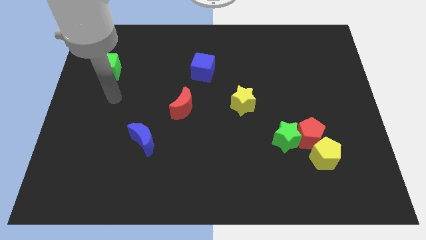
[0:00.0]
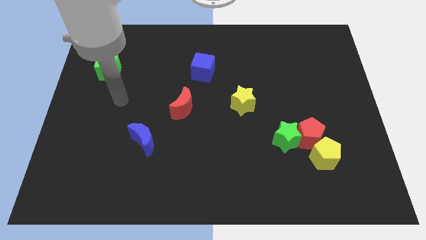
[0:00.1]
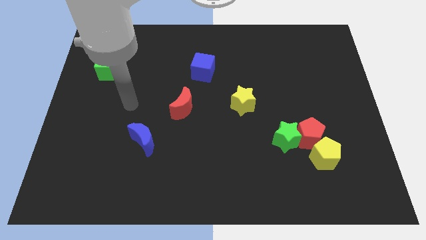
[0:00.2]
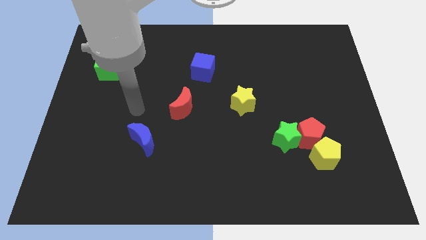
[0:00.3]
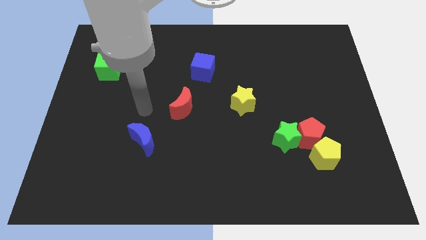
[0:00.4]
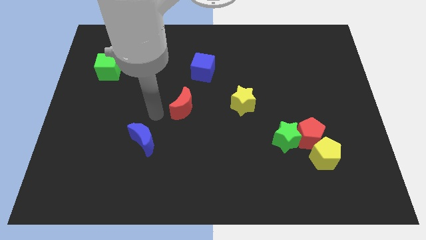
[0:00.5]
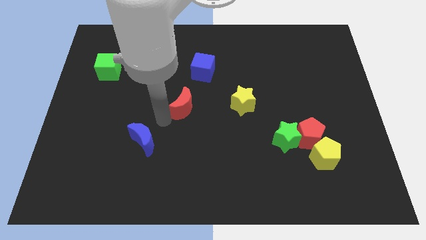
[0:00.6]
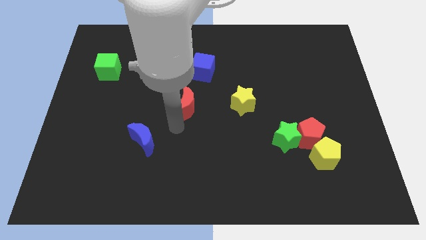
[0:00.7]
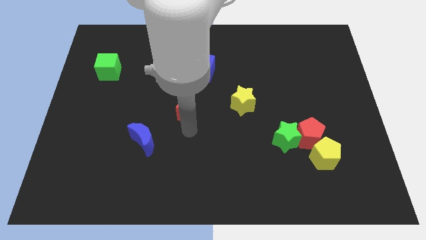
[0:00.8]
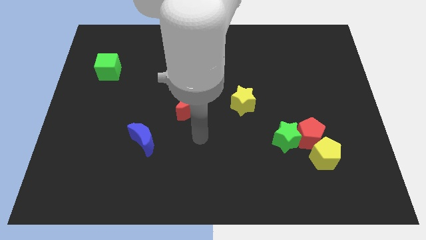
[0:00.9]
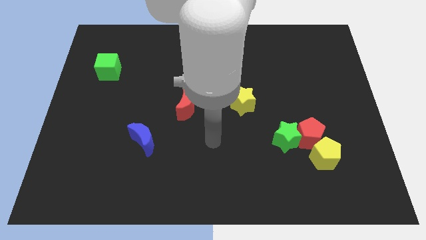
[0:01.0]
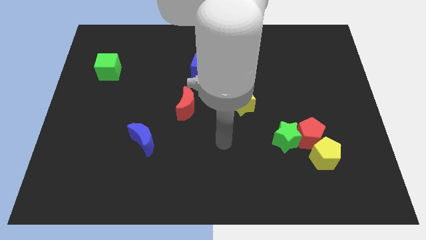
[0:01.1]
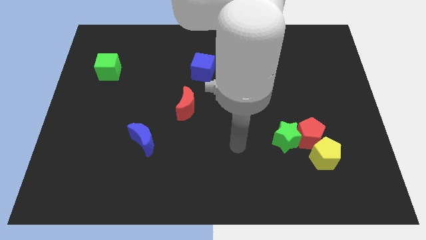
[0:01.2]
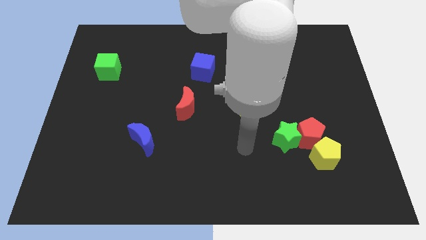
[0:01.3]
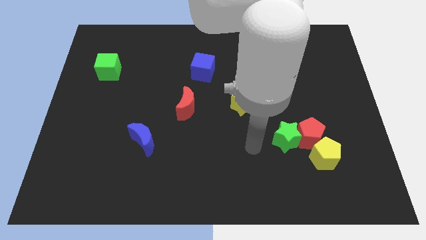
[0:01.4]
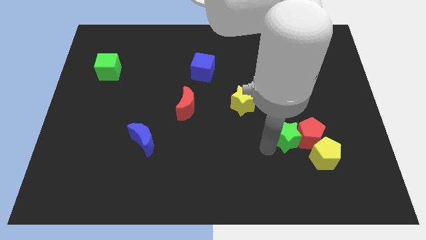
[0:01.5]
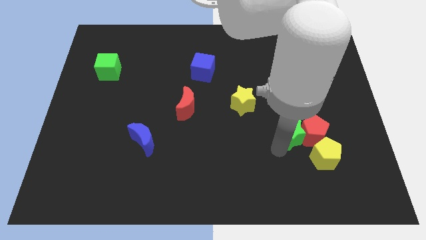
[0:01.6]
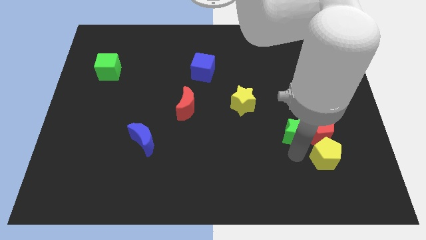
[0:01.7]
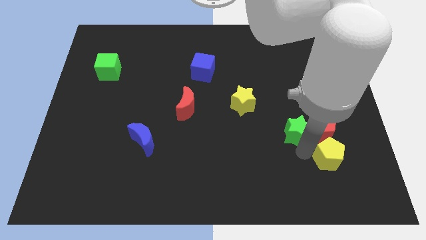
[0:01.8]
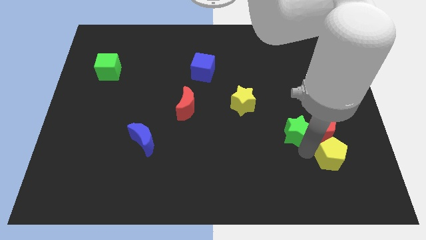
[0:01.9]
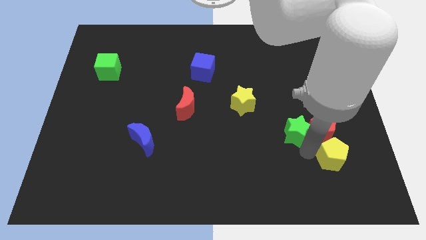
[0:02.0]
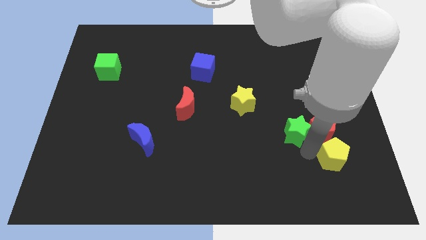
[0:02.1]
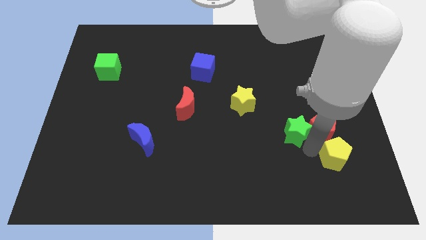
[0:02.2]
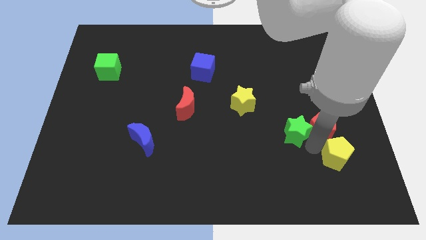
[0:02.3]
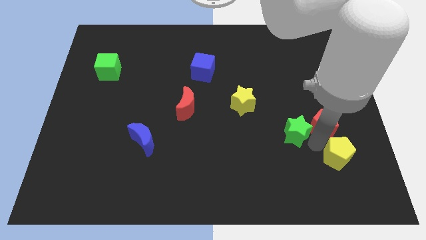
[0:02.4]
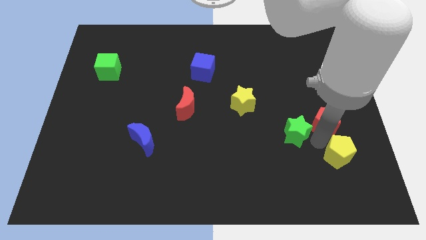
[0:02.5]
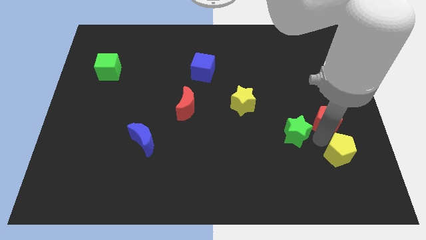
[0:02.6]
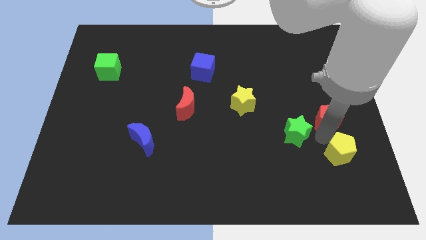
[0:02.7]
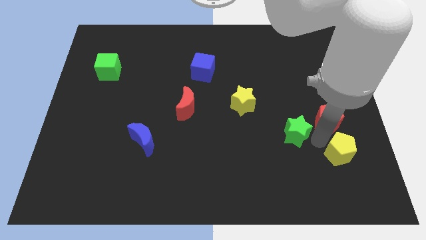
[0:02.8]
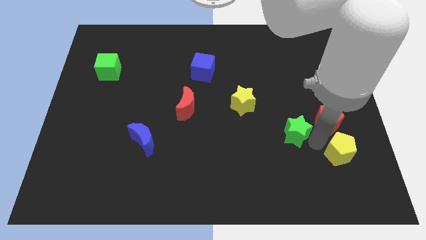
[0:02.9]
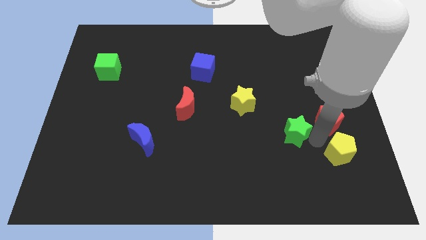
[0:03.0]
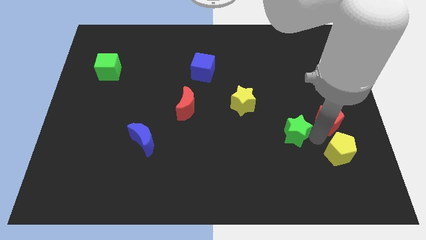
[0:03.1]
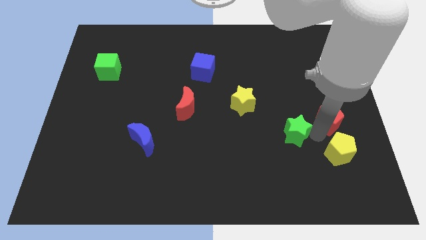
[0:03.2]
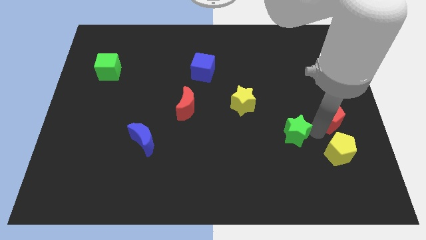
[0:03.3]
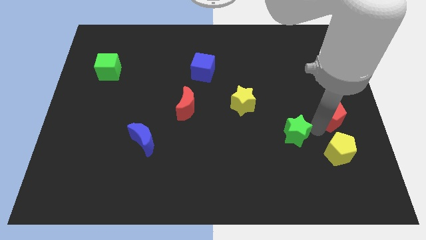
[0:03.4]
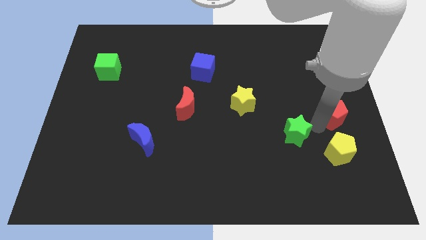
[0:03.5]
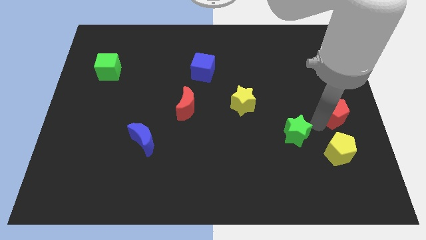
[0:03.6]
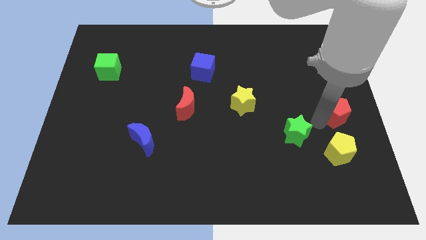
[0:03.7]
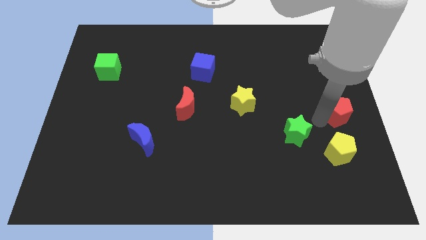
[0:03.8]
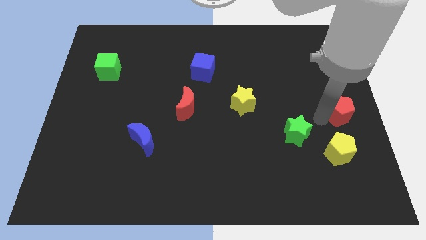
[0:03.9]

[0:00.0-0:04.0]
move the red pentagon away from the green star and yellow pentagon

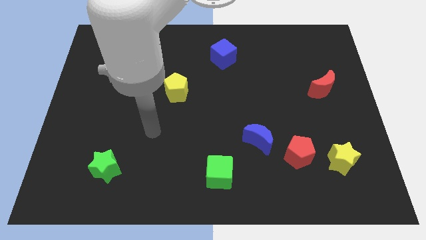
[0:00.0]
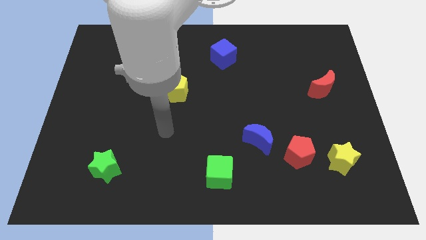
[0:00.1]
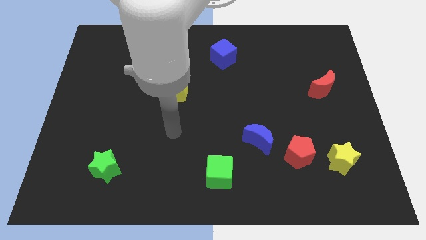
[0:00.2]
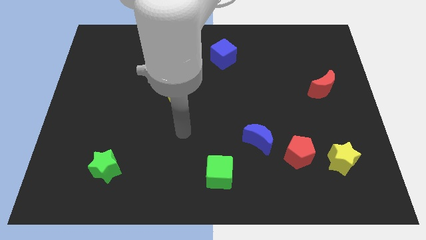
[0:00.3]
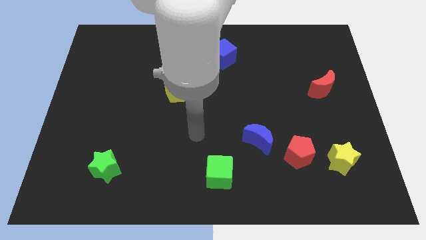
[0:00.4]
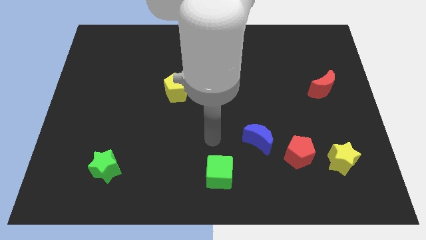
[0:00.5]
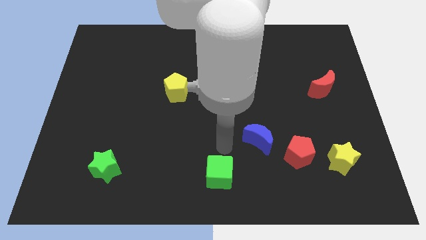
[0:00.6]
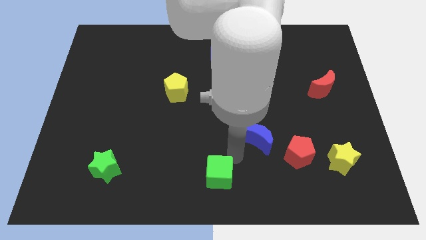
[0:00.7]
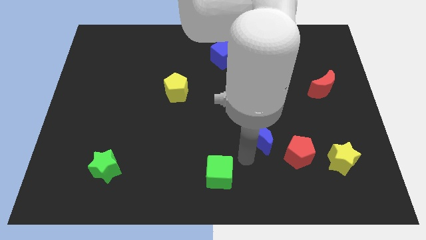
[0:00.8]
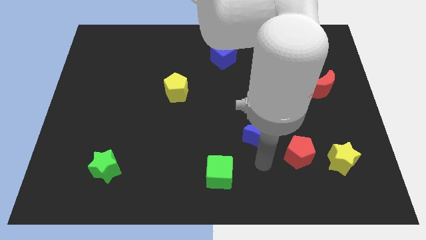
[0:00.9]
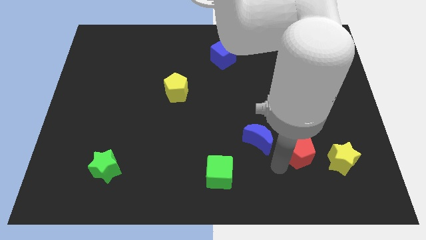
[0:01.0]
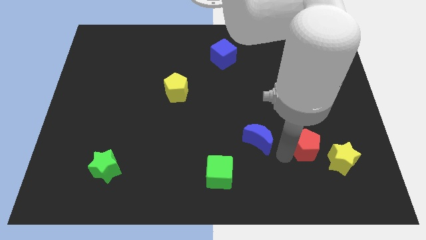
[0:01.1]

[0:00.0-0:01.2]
pull the blue moon apart from the red pentagon

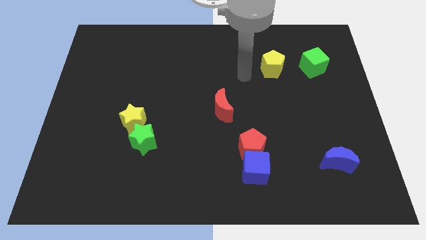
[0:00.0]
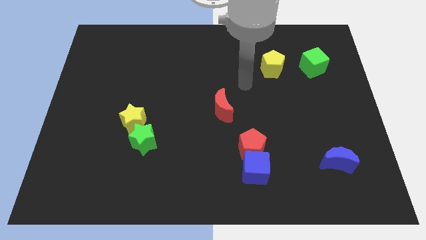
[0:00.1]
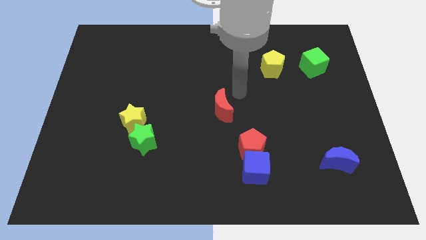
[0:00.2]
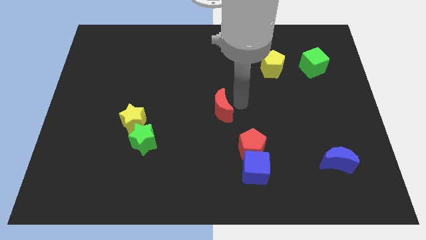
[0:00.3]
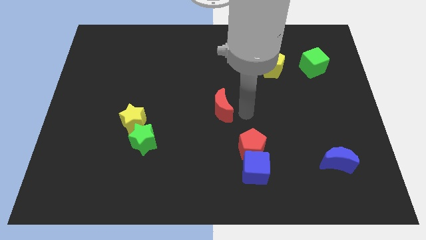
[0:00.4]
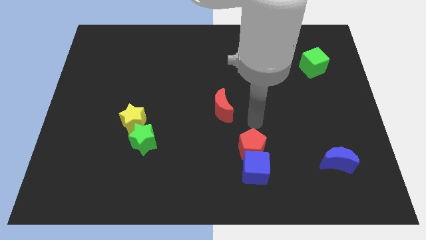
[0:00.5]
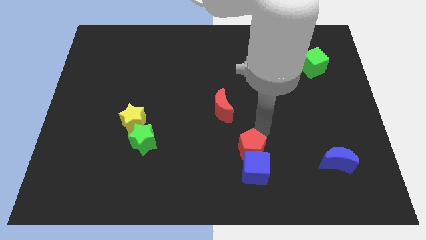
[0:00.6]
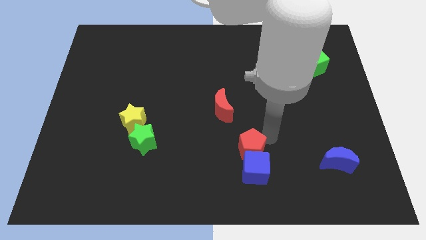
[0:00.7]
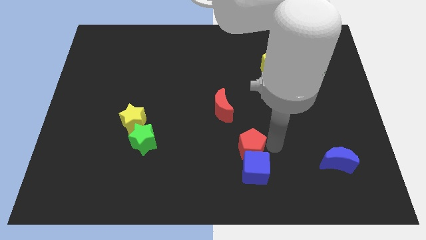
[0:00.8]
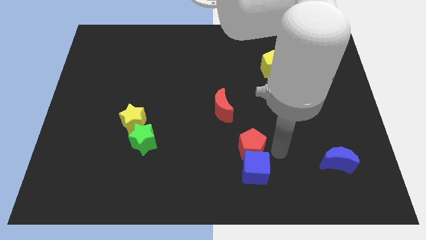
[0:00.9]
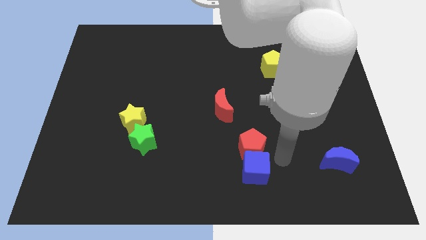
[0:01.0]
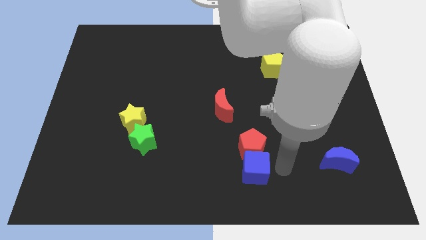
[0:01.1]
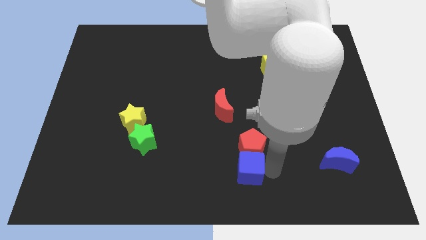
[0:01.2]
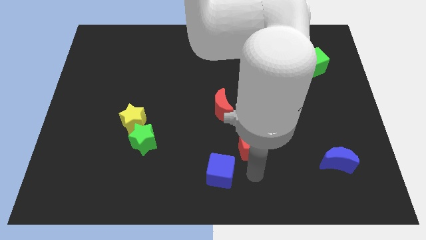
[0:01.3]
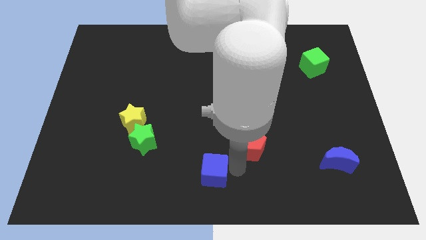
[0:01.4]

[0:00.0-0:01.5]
pull the red pentagon apart from the blue cube

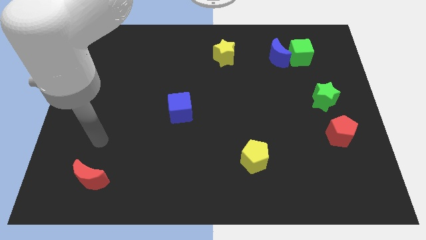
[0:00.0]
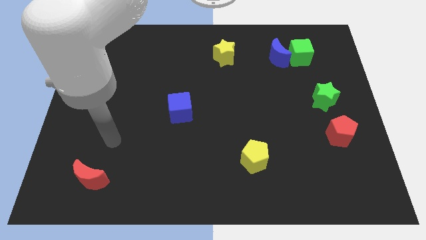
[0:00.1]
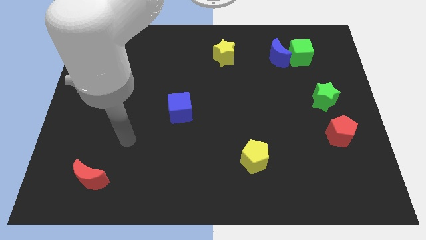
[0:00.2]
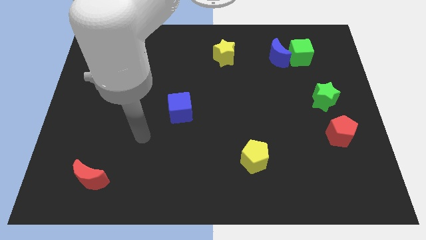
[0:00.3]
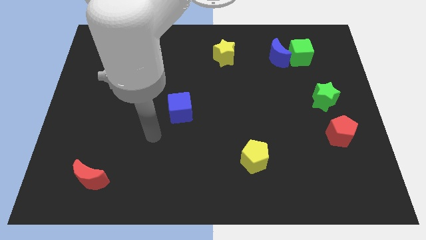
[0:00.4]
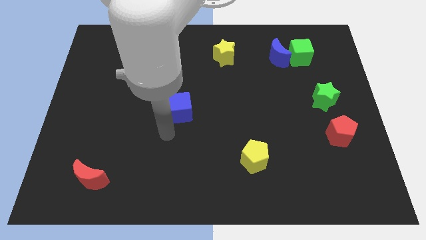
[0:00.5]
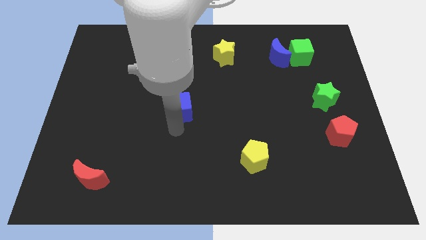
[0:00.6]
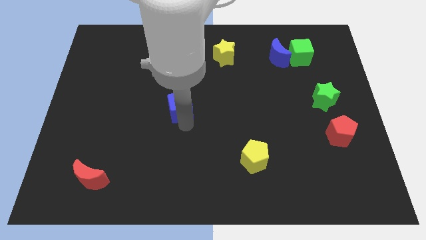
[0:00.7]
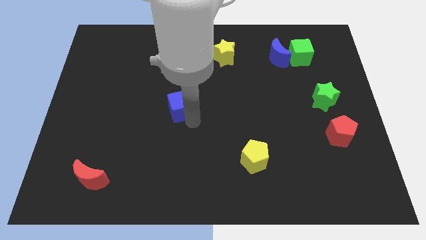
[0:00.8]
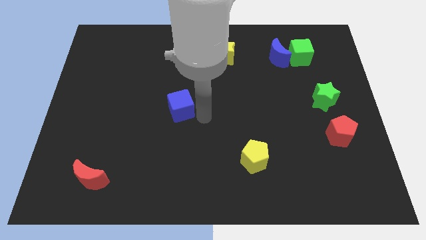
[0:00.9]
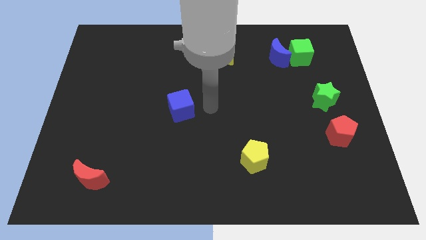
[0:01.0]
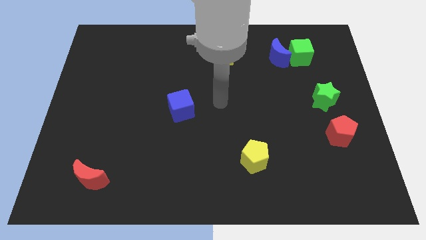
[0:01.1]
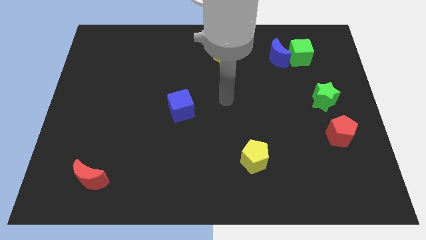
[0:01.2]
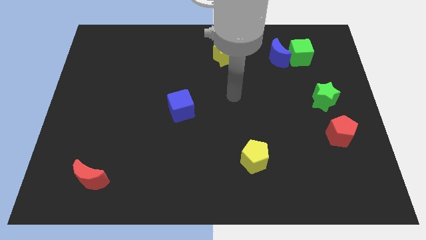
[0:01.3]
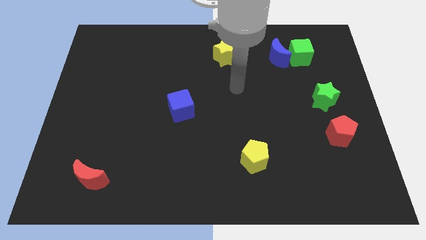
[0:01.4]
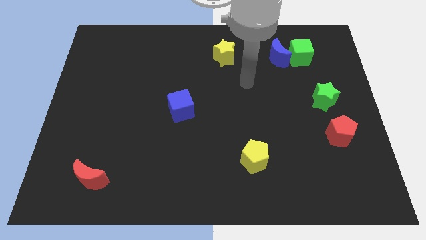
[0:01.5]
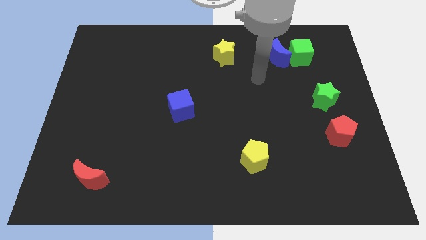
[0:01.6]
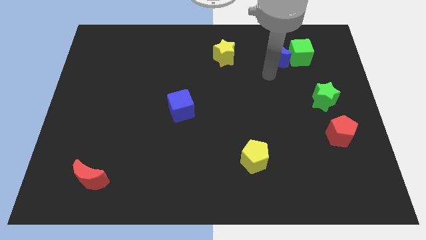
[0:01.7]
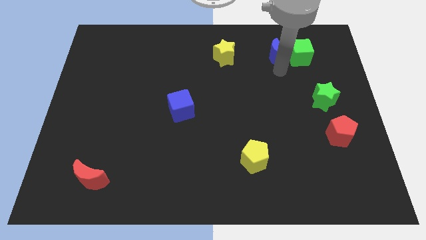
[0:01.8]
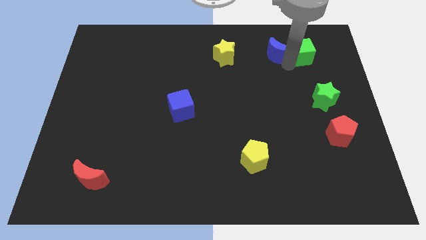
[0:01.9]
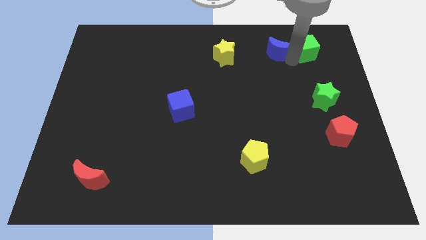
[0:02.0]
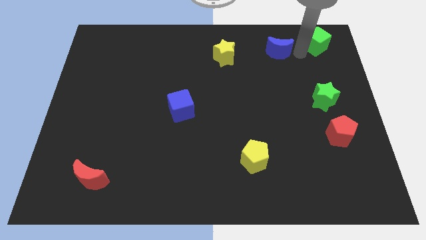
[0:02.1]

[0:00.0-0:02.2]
separate the blue moon from the green cube

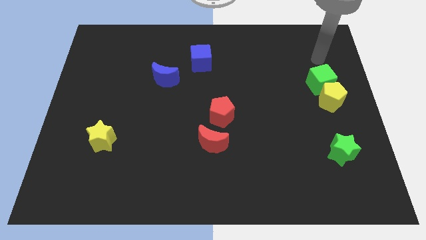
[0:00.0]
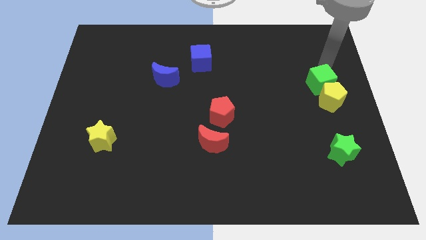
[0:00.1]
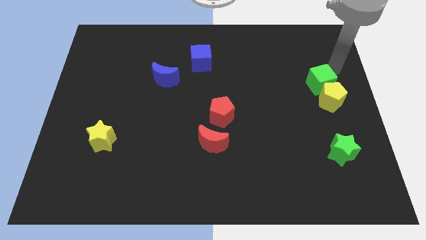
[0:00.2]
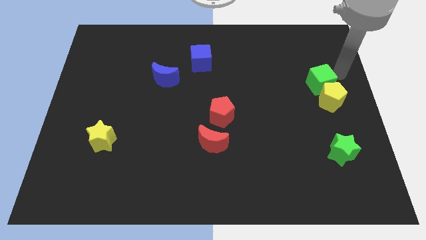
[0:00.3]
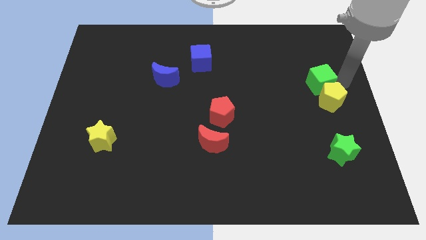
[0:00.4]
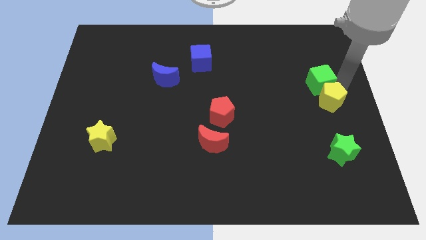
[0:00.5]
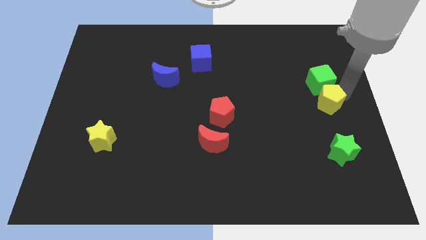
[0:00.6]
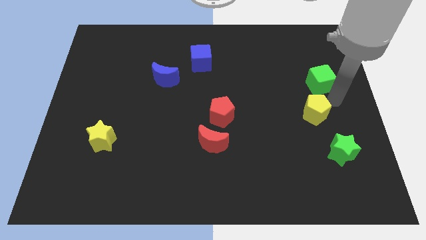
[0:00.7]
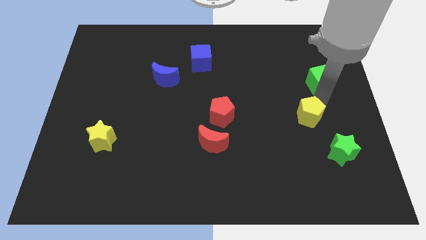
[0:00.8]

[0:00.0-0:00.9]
move the green cube away from the yellow pentagon
